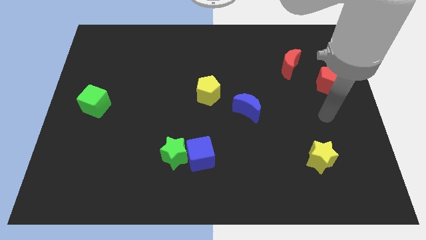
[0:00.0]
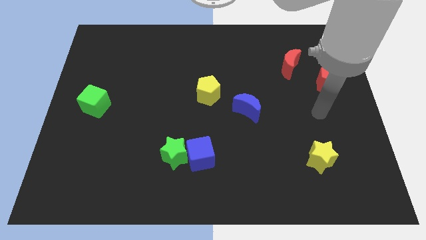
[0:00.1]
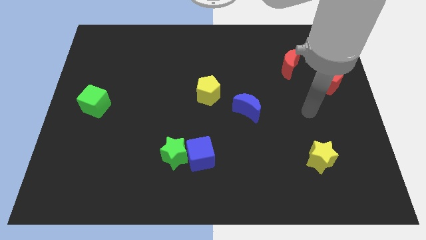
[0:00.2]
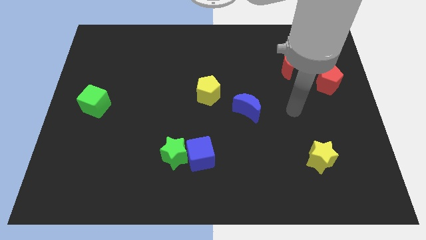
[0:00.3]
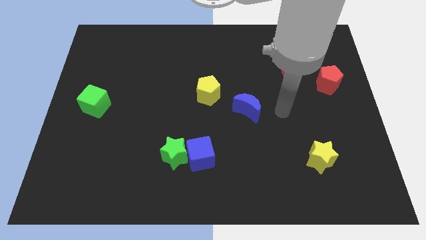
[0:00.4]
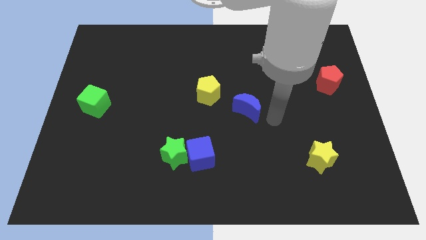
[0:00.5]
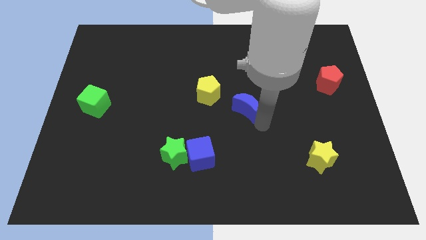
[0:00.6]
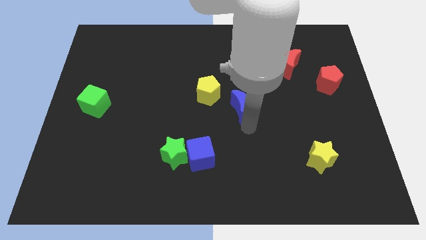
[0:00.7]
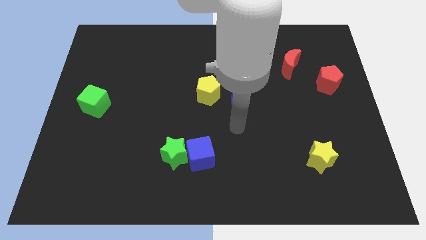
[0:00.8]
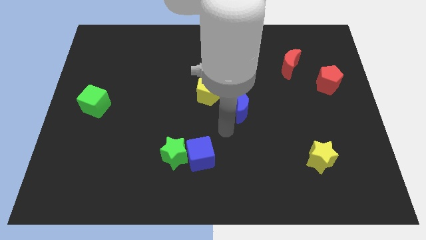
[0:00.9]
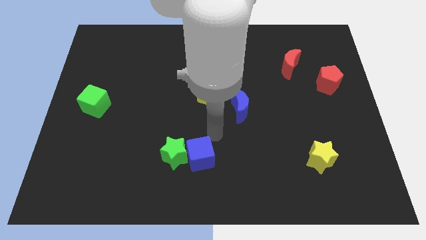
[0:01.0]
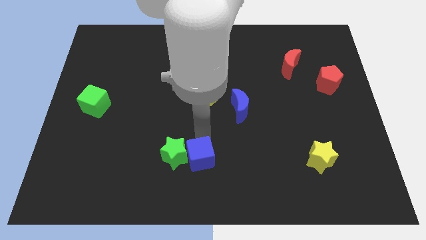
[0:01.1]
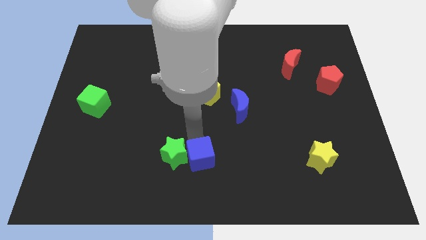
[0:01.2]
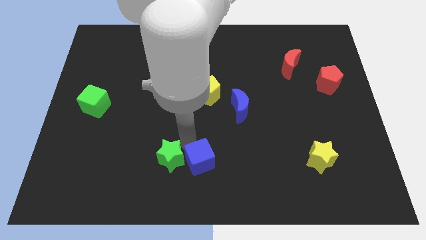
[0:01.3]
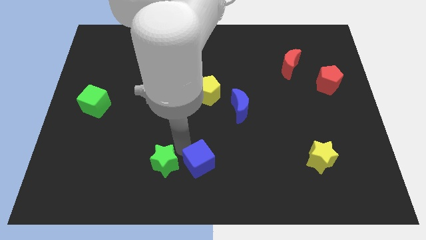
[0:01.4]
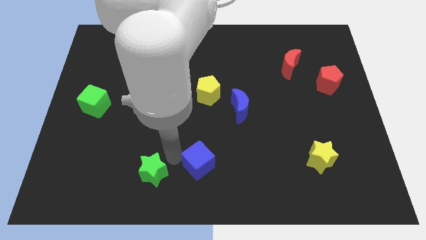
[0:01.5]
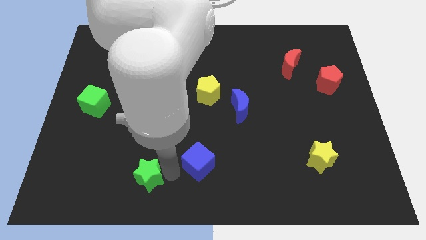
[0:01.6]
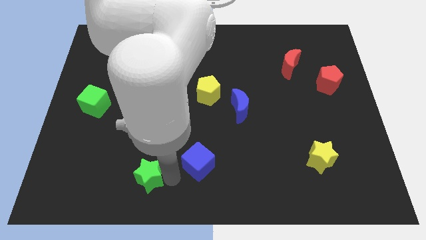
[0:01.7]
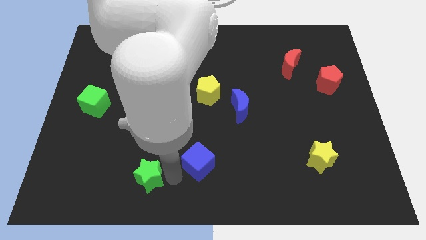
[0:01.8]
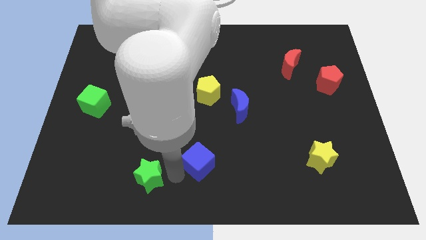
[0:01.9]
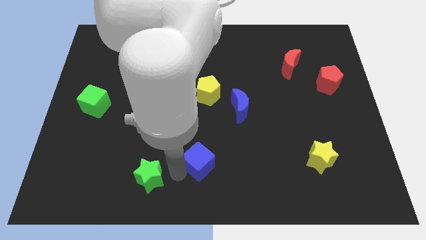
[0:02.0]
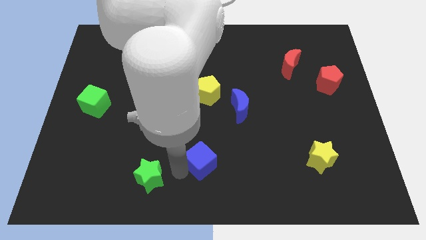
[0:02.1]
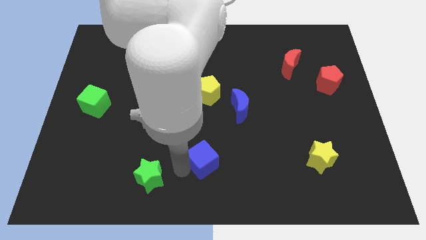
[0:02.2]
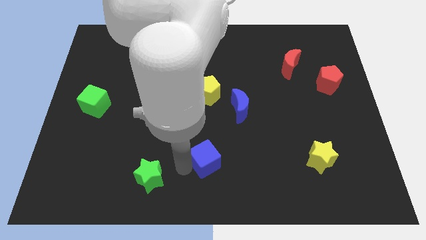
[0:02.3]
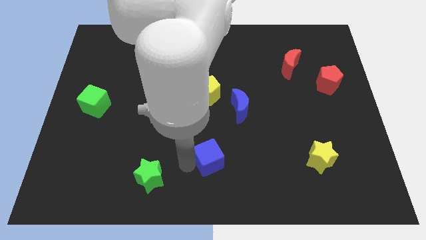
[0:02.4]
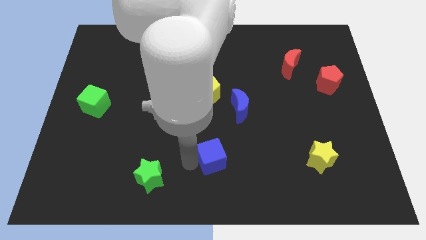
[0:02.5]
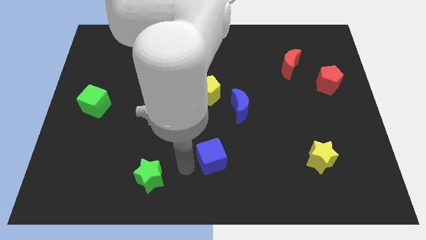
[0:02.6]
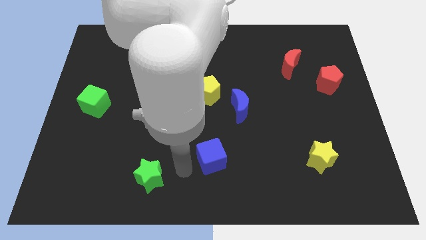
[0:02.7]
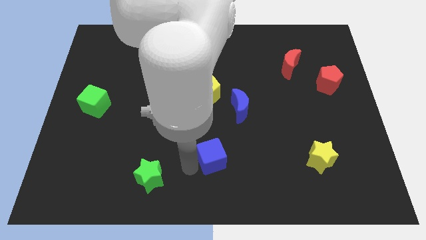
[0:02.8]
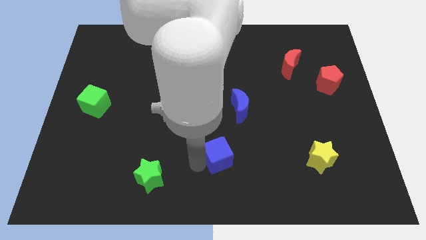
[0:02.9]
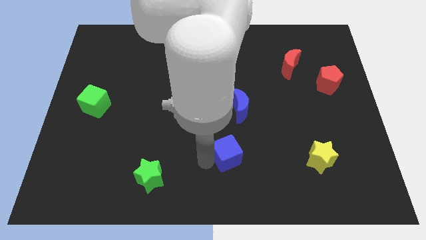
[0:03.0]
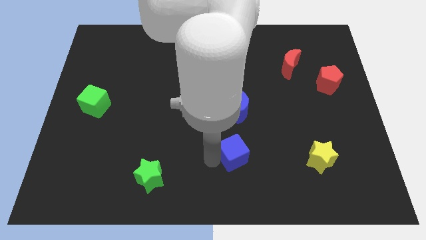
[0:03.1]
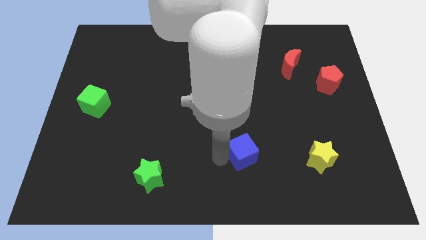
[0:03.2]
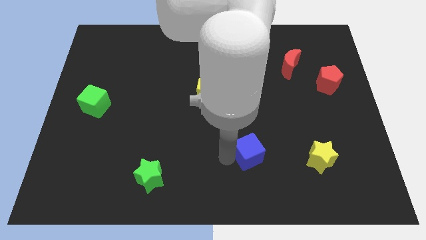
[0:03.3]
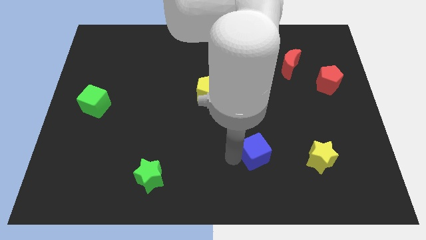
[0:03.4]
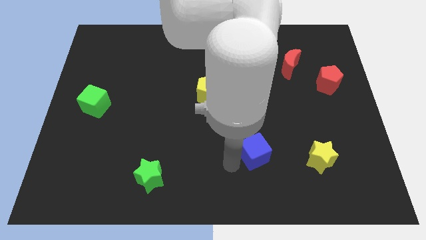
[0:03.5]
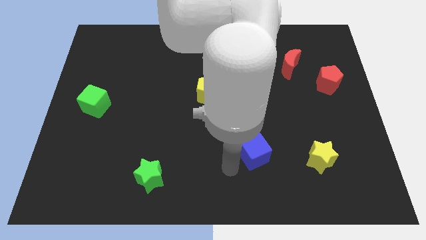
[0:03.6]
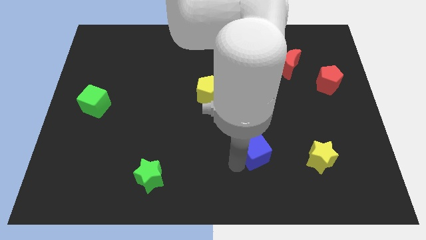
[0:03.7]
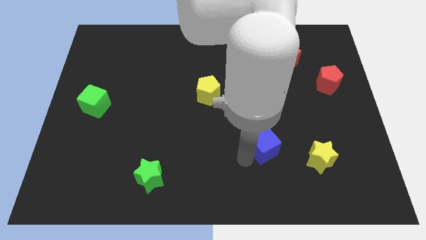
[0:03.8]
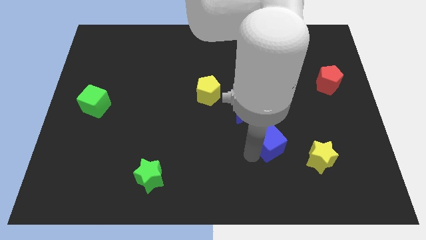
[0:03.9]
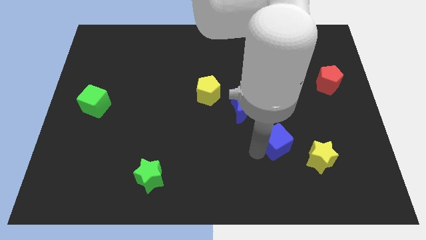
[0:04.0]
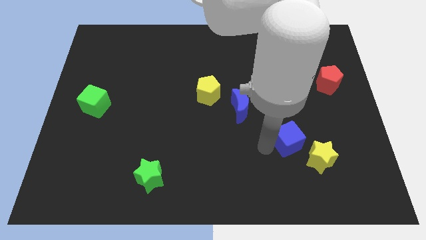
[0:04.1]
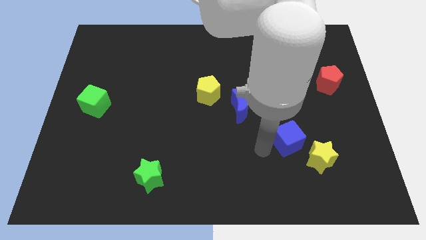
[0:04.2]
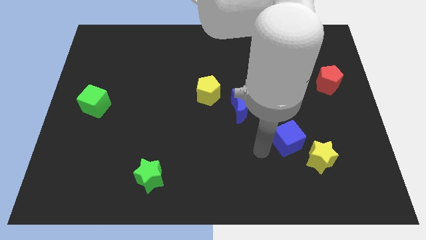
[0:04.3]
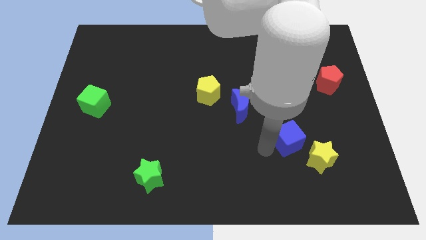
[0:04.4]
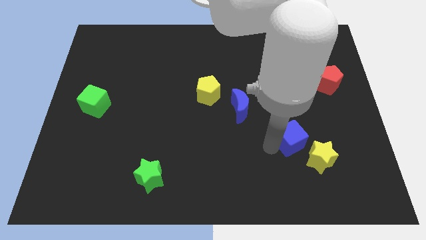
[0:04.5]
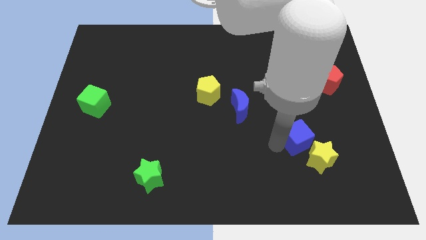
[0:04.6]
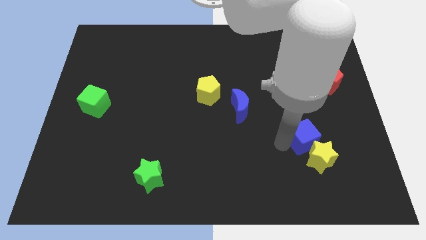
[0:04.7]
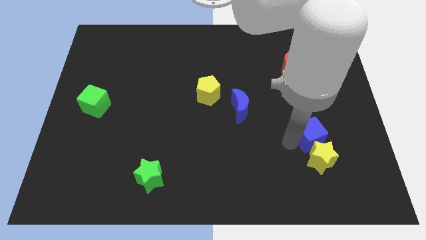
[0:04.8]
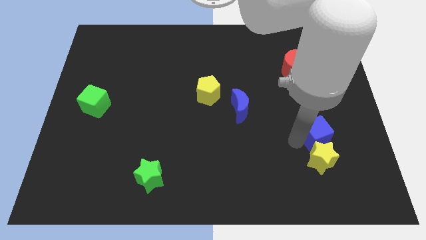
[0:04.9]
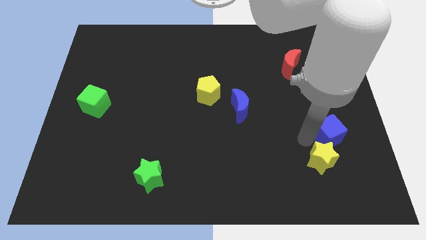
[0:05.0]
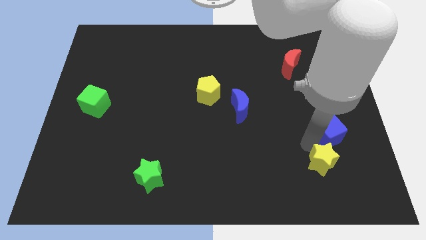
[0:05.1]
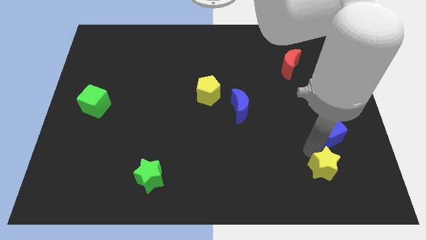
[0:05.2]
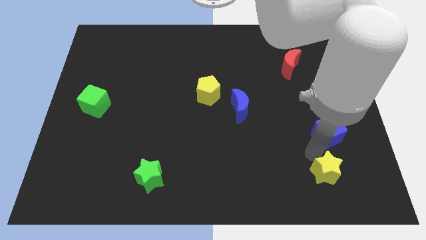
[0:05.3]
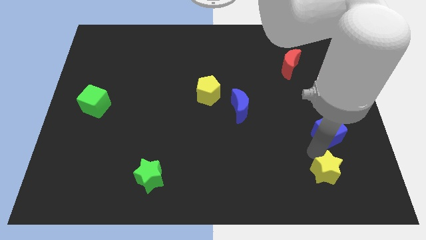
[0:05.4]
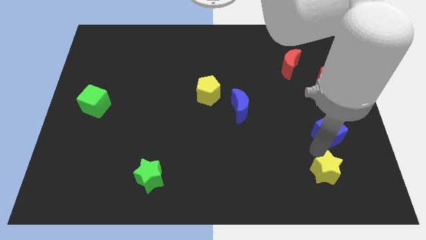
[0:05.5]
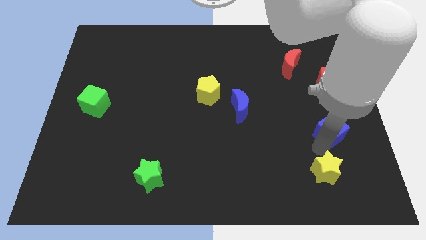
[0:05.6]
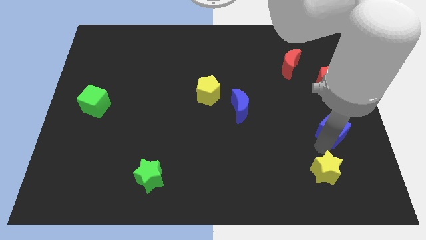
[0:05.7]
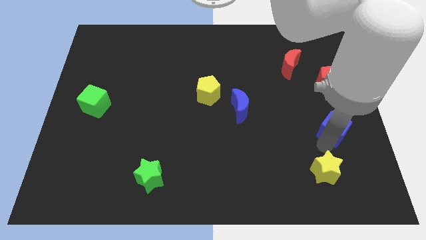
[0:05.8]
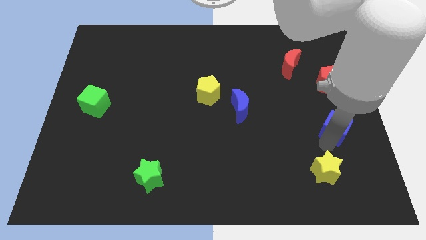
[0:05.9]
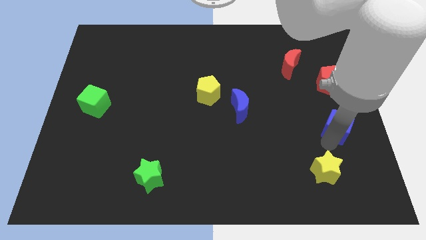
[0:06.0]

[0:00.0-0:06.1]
move the blue cube to the right side
